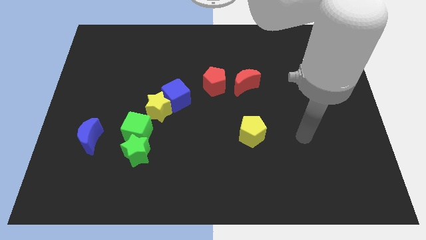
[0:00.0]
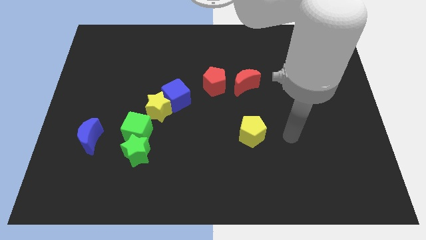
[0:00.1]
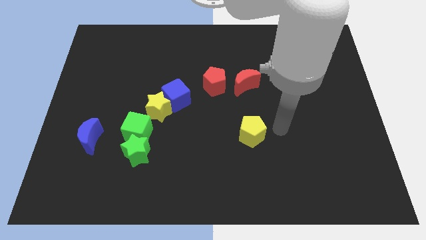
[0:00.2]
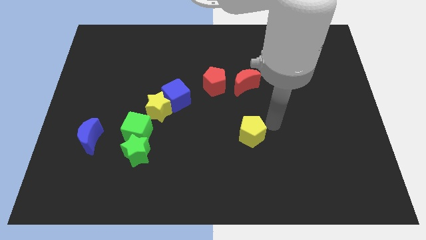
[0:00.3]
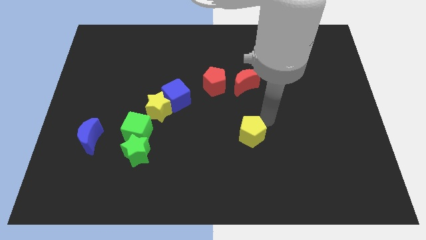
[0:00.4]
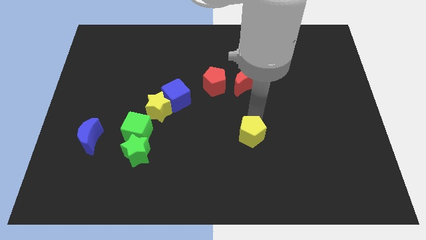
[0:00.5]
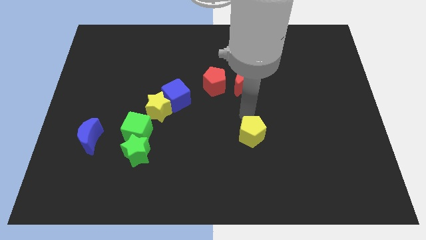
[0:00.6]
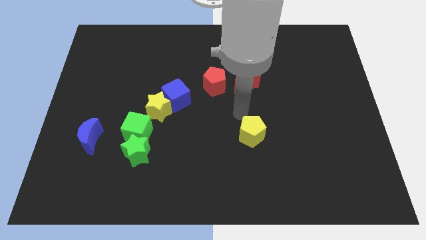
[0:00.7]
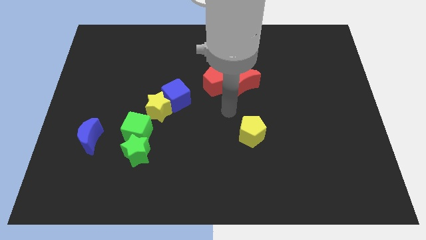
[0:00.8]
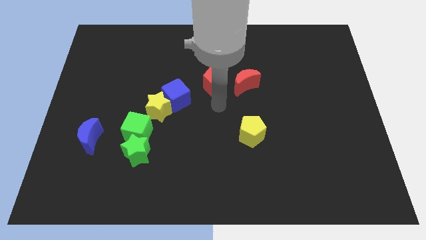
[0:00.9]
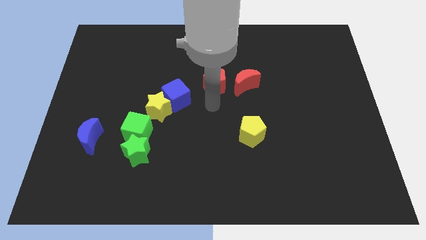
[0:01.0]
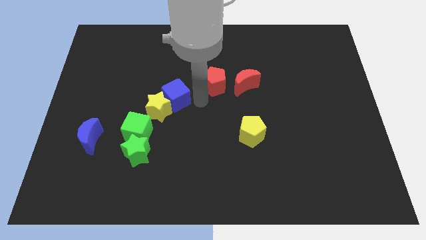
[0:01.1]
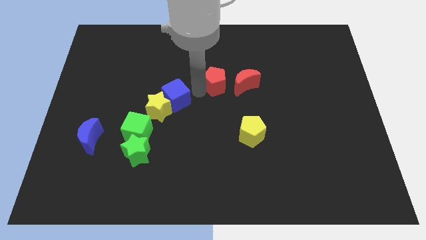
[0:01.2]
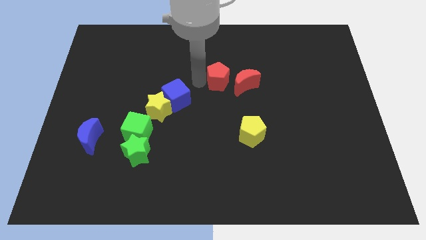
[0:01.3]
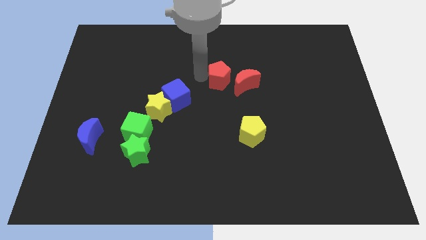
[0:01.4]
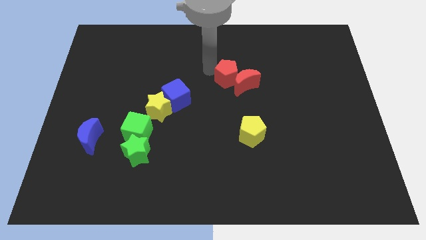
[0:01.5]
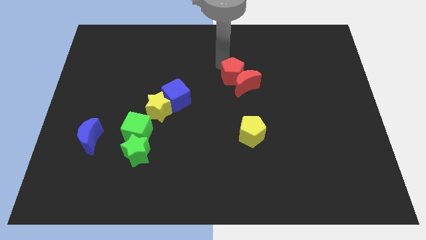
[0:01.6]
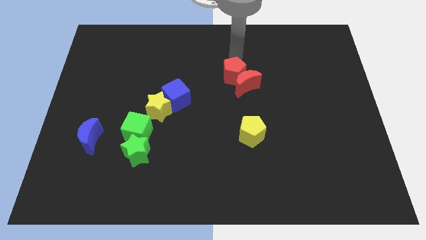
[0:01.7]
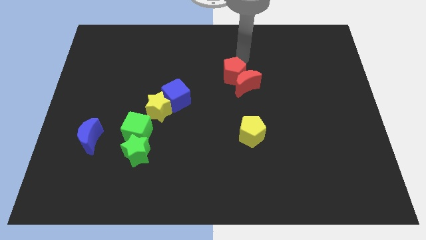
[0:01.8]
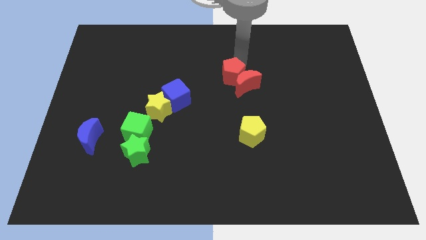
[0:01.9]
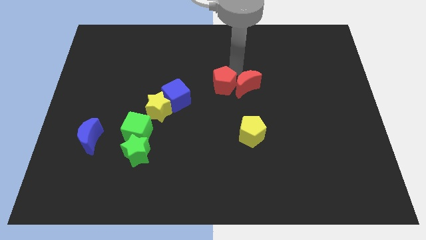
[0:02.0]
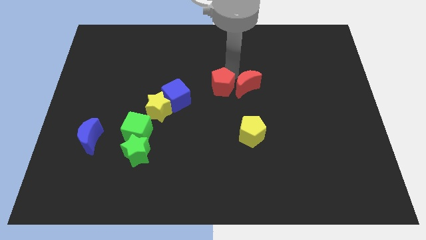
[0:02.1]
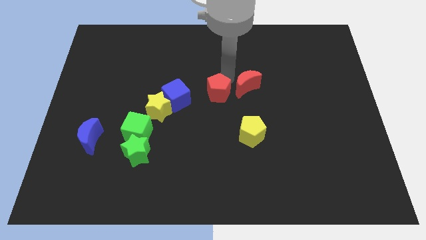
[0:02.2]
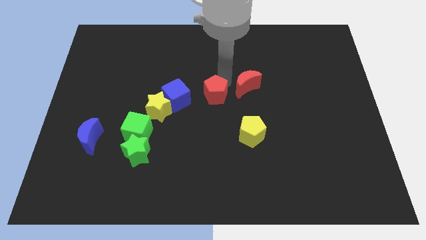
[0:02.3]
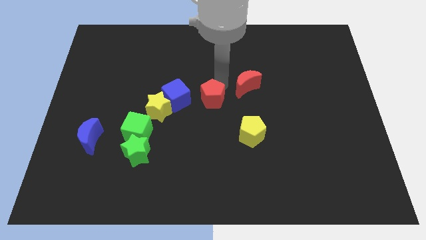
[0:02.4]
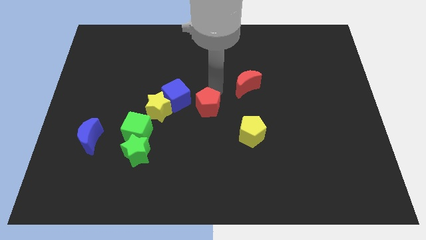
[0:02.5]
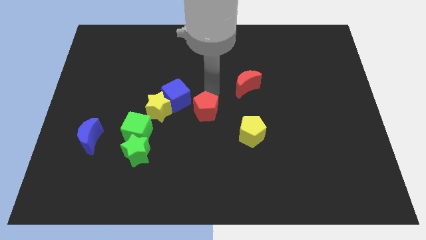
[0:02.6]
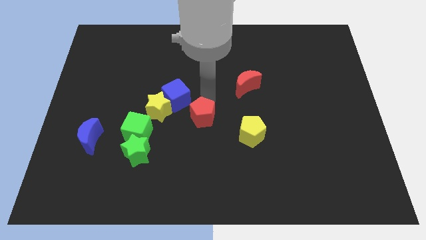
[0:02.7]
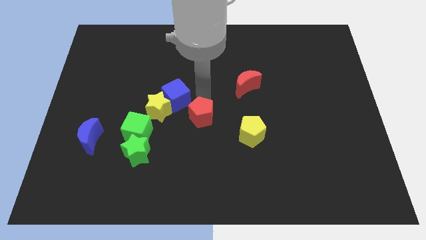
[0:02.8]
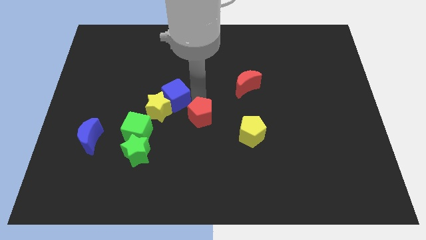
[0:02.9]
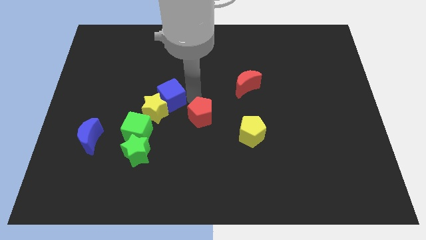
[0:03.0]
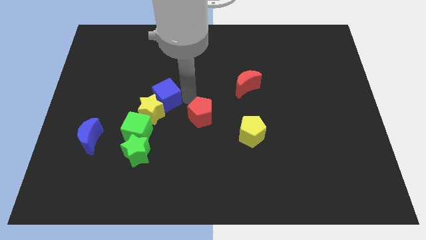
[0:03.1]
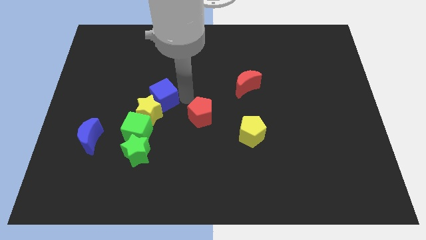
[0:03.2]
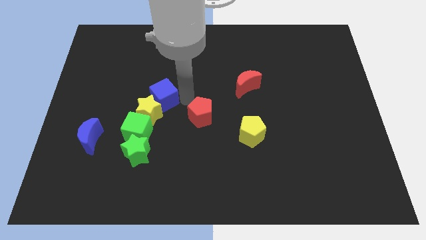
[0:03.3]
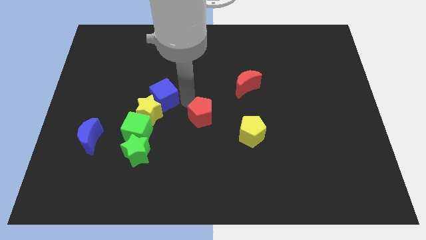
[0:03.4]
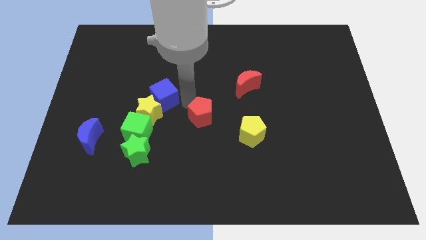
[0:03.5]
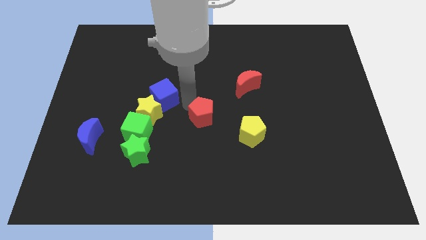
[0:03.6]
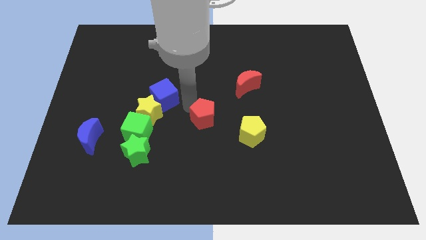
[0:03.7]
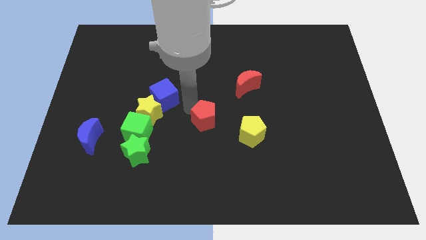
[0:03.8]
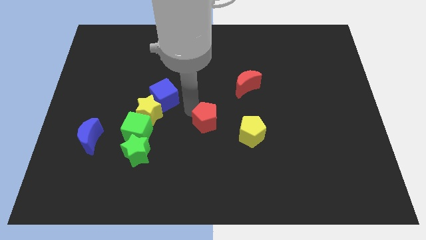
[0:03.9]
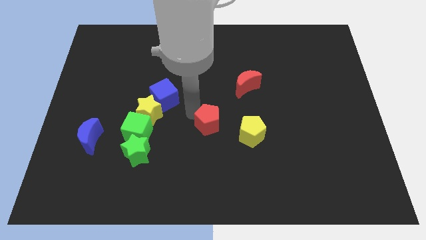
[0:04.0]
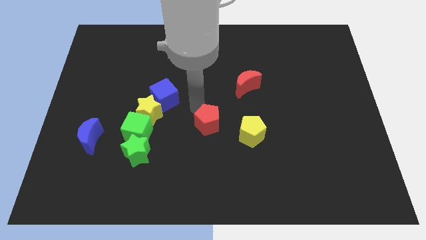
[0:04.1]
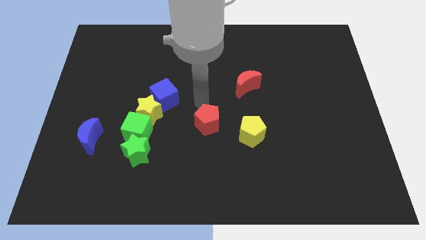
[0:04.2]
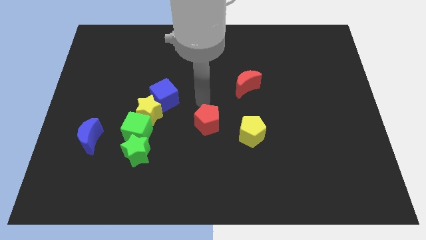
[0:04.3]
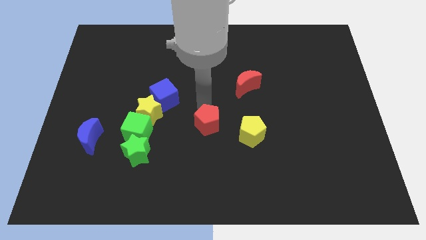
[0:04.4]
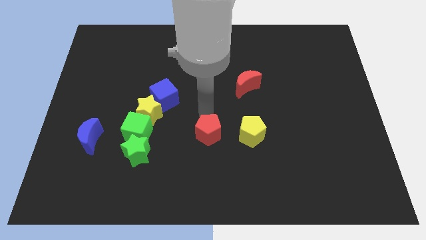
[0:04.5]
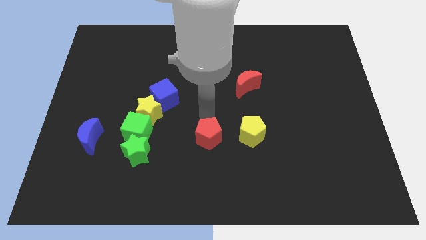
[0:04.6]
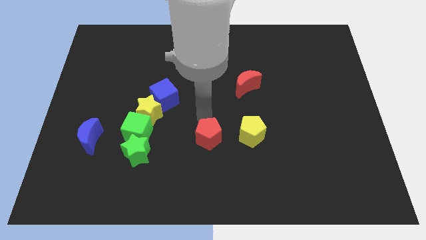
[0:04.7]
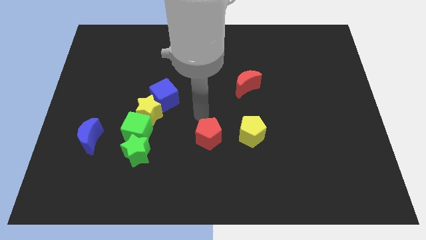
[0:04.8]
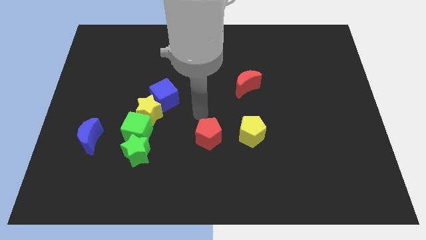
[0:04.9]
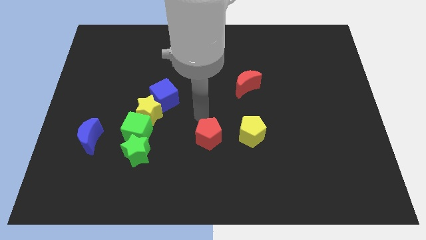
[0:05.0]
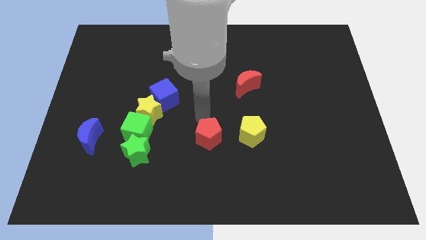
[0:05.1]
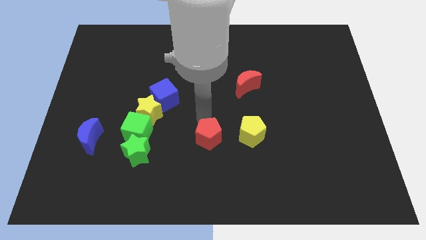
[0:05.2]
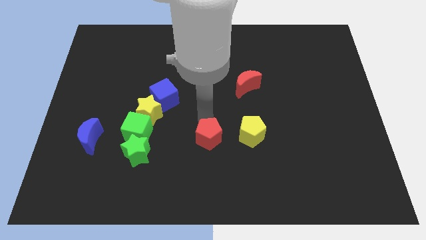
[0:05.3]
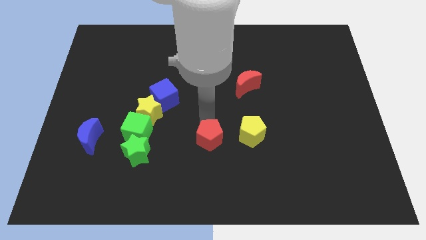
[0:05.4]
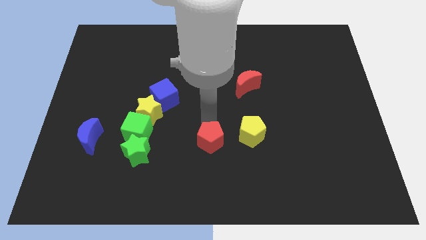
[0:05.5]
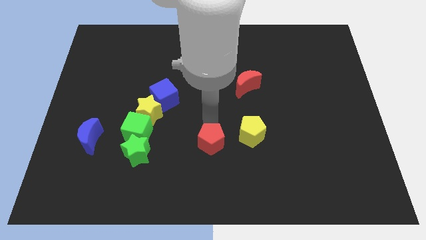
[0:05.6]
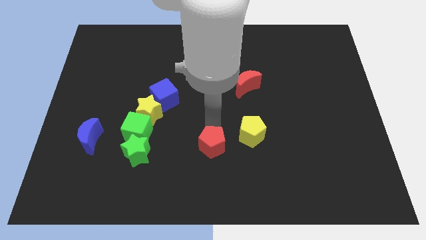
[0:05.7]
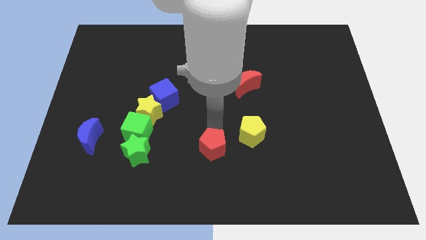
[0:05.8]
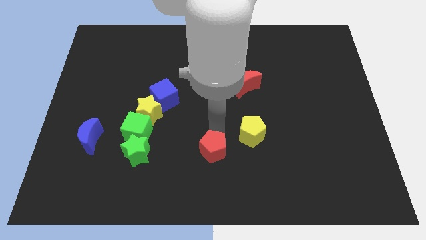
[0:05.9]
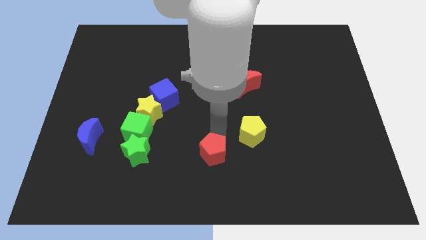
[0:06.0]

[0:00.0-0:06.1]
push the red pentagon to the bottom side
